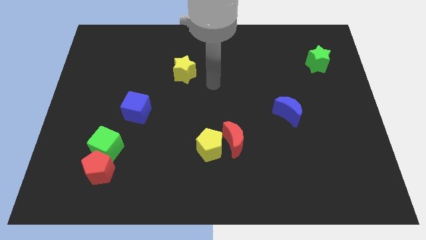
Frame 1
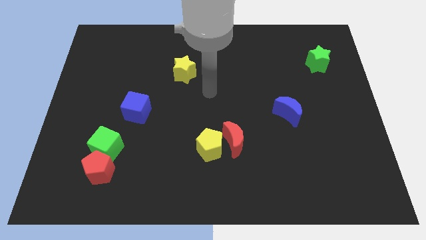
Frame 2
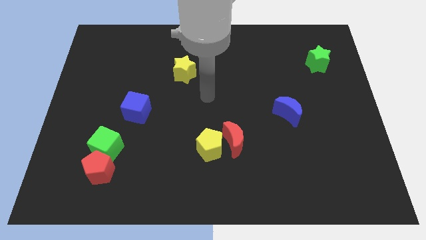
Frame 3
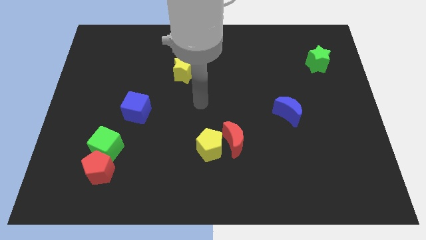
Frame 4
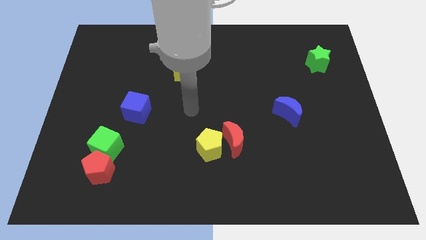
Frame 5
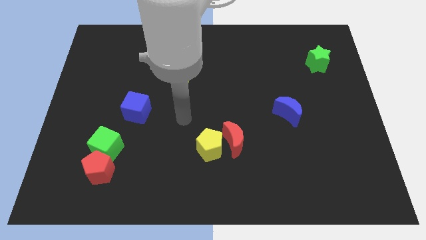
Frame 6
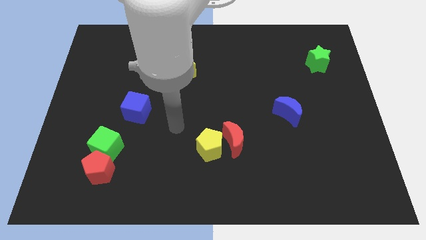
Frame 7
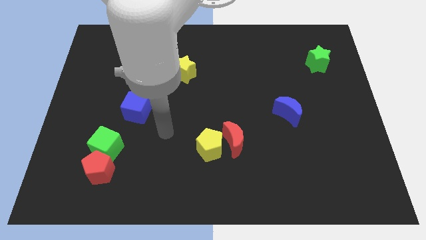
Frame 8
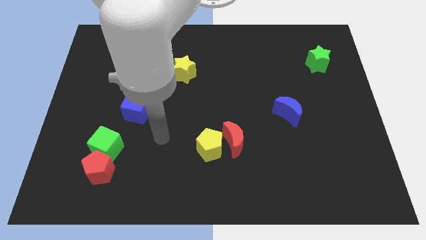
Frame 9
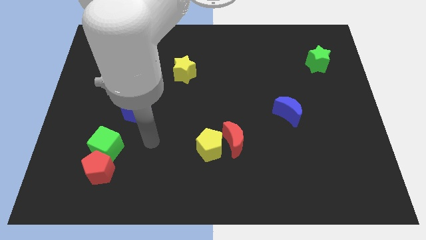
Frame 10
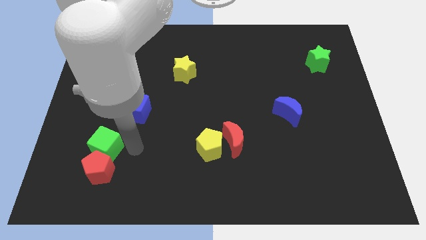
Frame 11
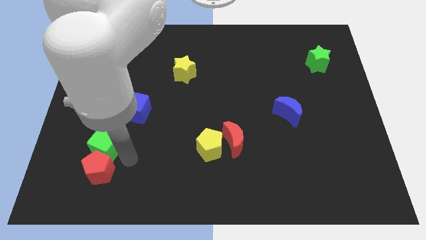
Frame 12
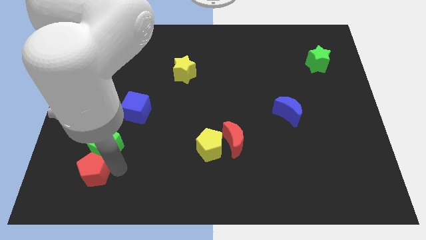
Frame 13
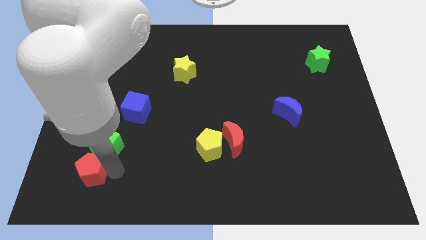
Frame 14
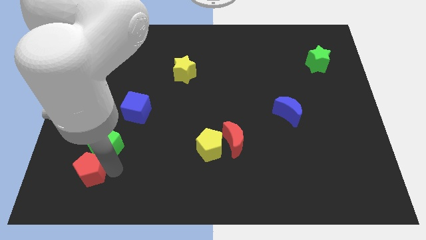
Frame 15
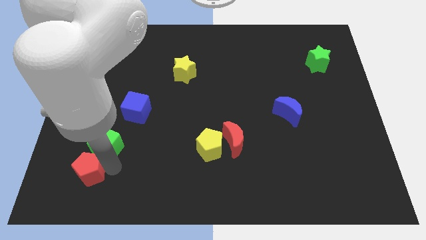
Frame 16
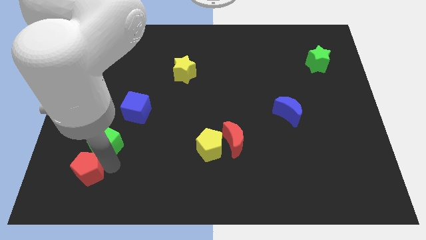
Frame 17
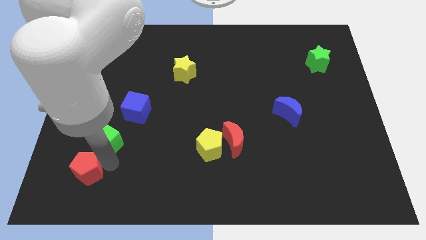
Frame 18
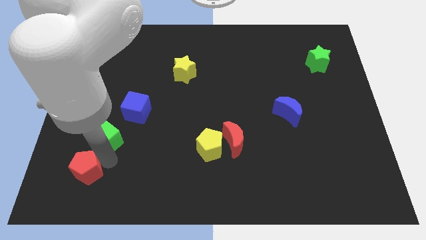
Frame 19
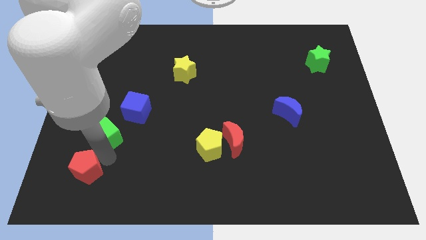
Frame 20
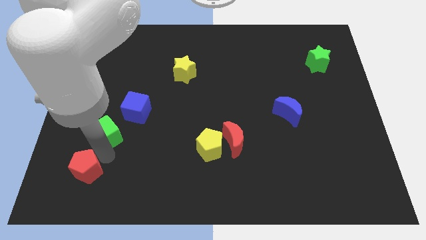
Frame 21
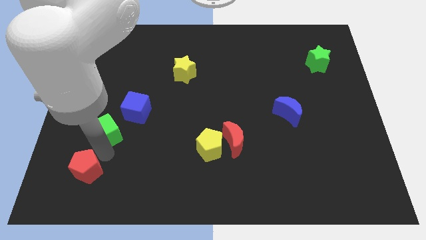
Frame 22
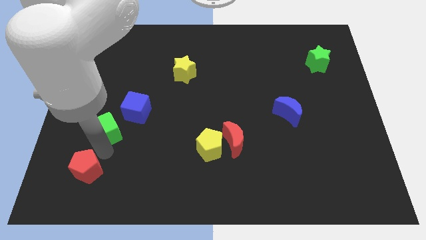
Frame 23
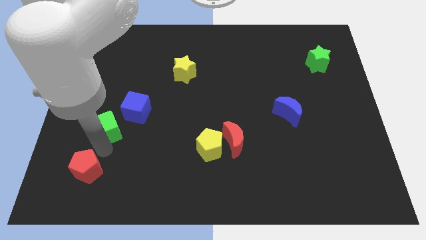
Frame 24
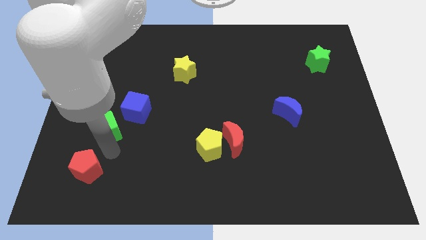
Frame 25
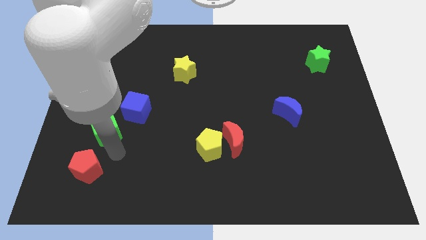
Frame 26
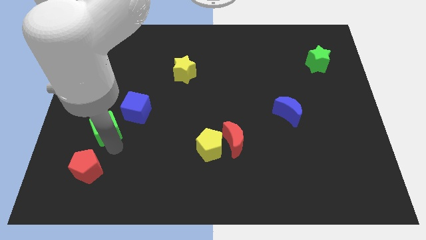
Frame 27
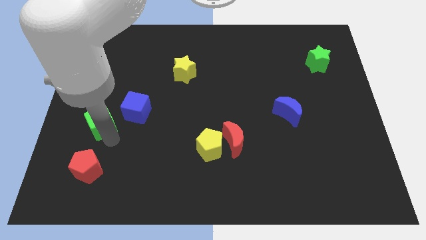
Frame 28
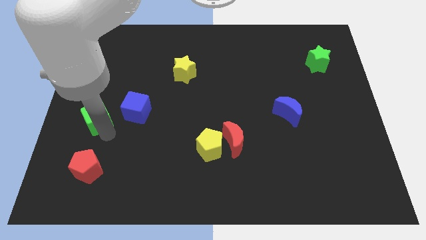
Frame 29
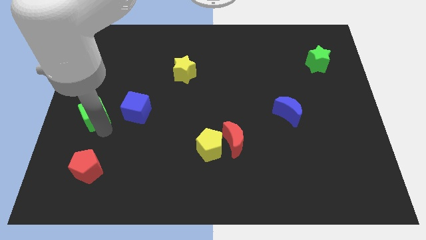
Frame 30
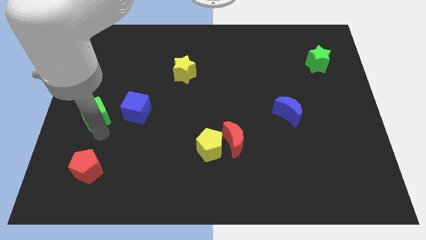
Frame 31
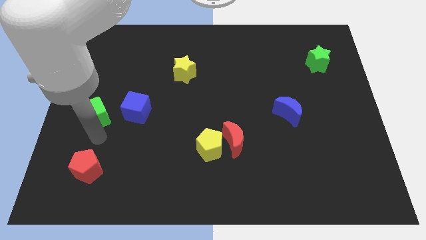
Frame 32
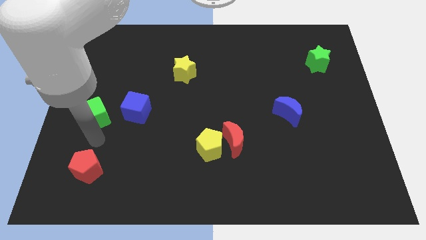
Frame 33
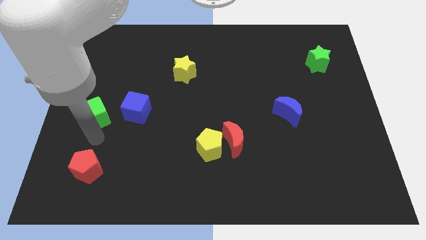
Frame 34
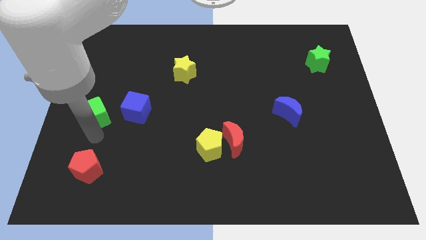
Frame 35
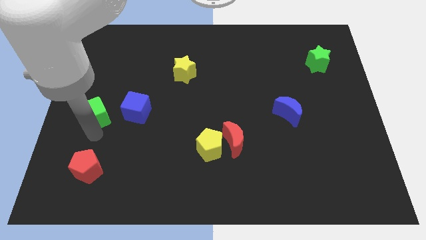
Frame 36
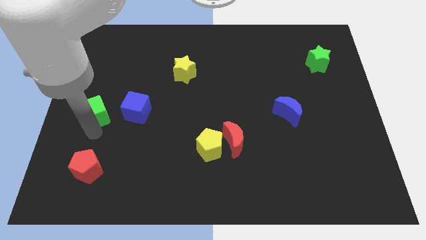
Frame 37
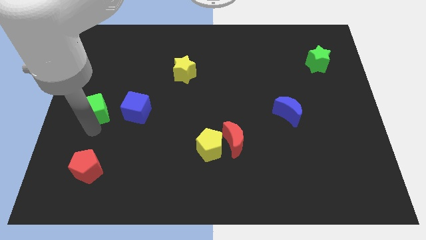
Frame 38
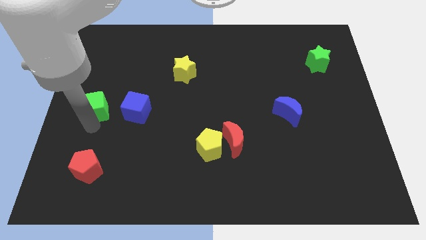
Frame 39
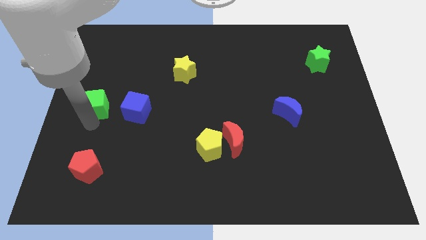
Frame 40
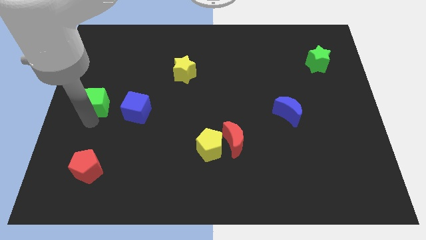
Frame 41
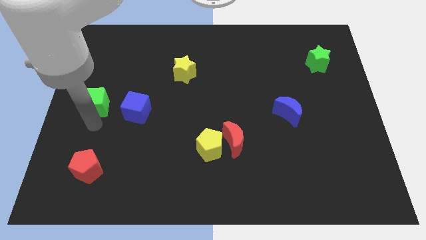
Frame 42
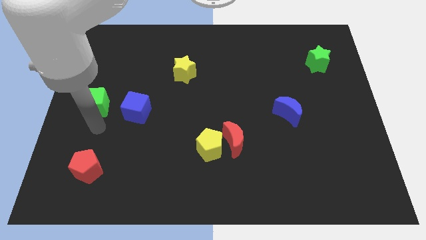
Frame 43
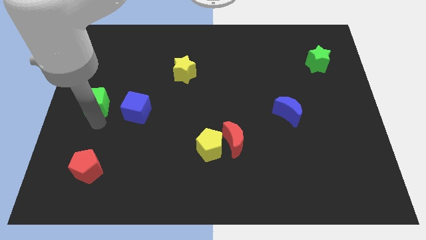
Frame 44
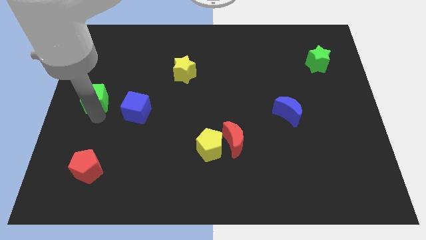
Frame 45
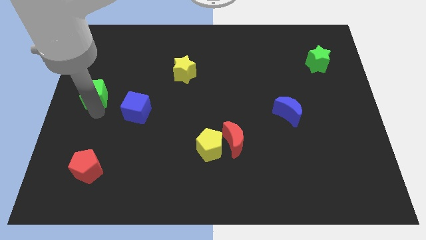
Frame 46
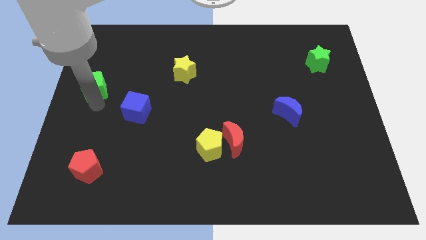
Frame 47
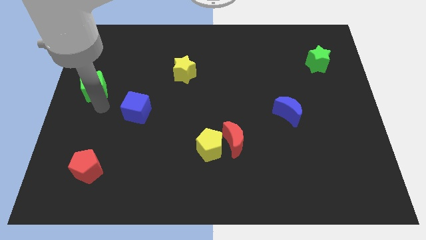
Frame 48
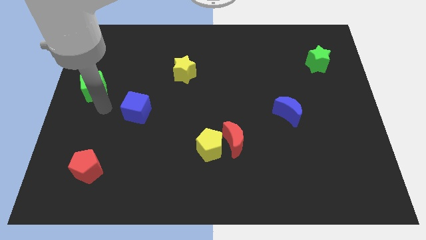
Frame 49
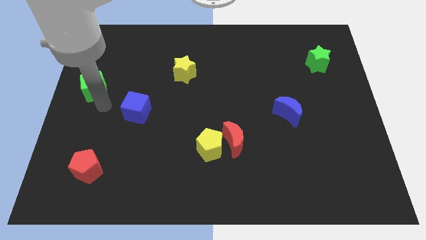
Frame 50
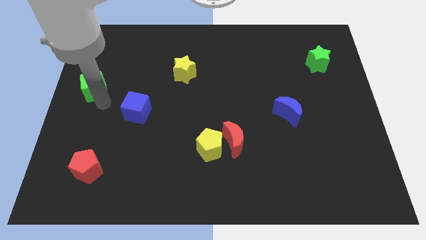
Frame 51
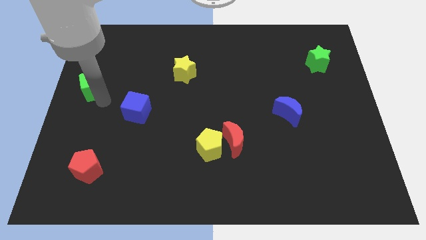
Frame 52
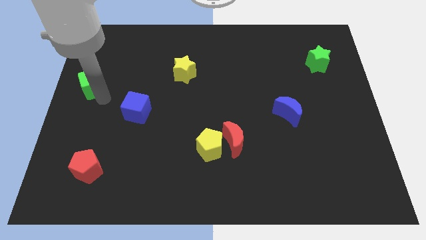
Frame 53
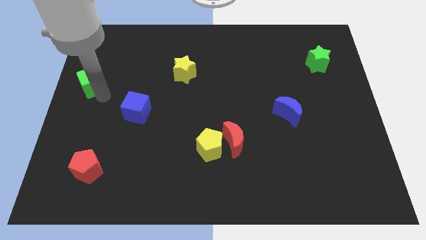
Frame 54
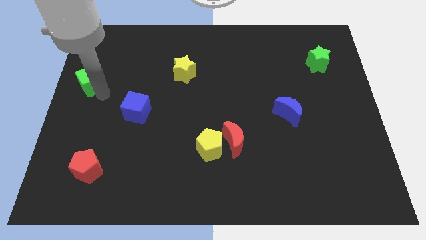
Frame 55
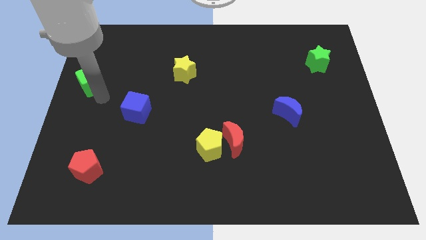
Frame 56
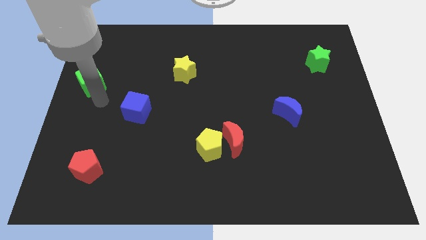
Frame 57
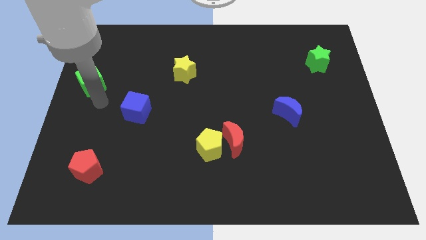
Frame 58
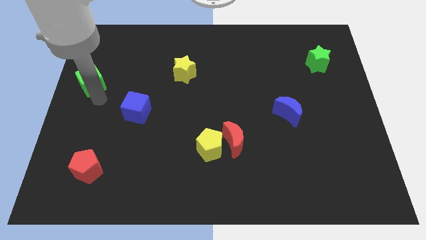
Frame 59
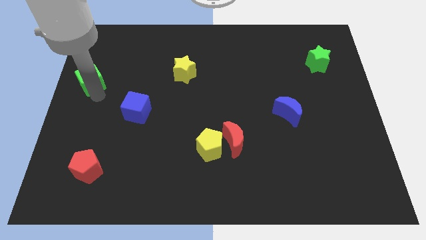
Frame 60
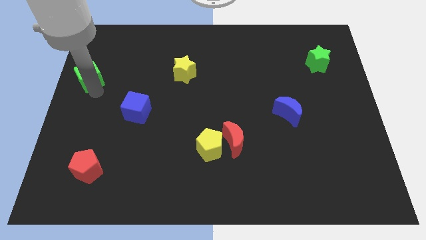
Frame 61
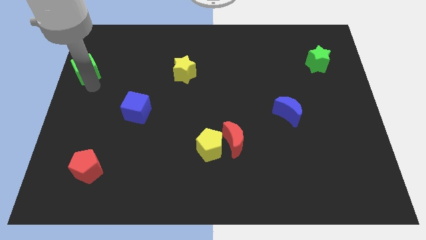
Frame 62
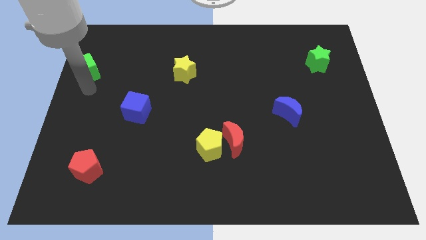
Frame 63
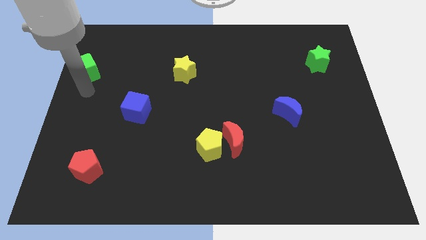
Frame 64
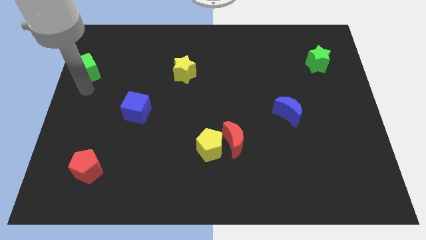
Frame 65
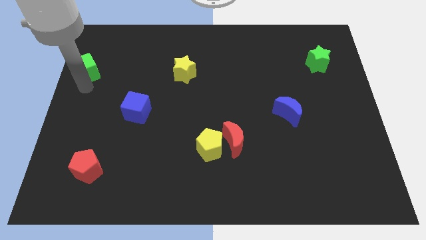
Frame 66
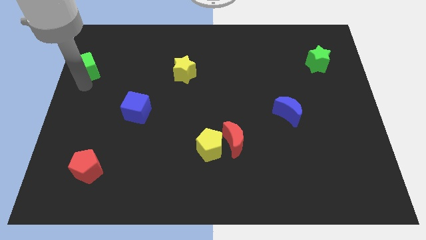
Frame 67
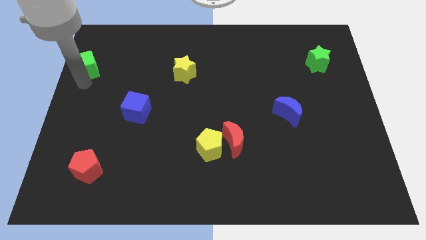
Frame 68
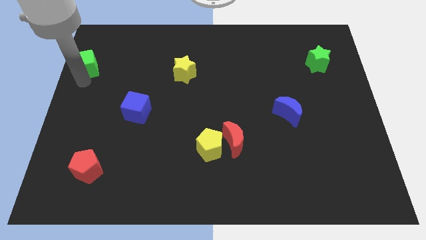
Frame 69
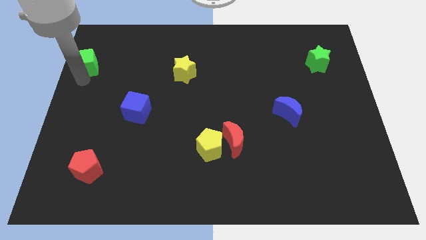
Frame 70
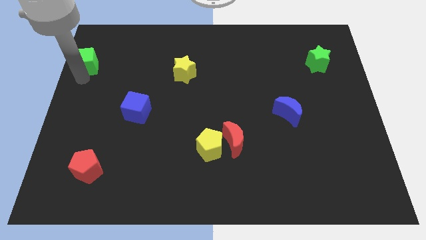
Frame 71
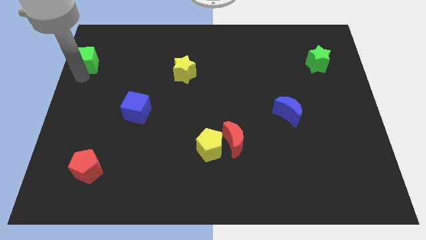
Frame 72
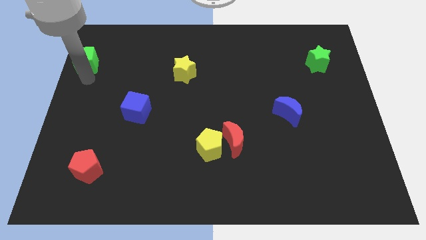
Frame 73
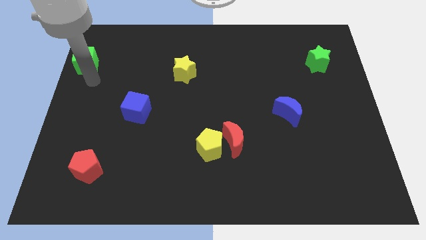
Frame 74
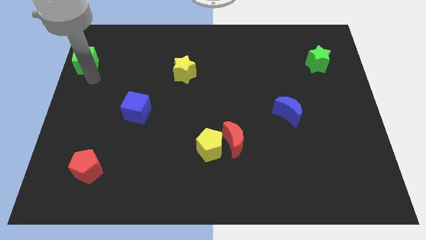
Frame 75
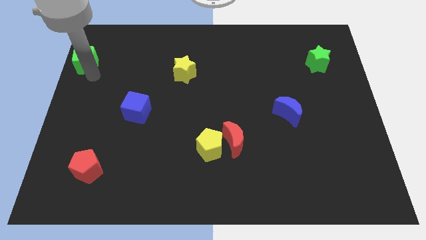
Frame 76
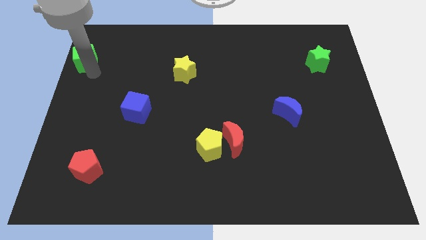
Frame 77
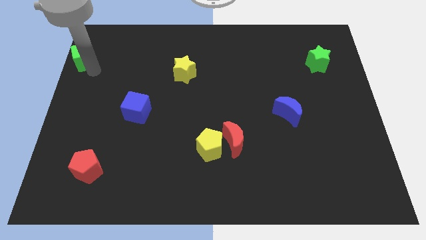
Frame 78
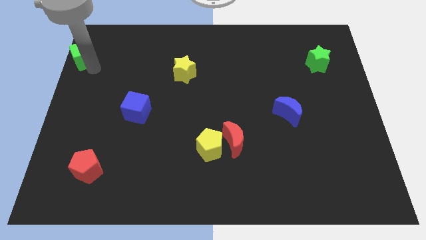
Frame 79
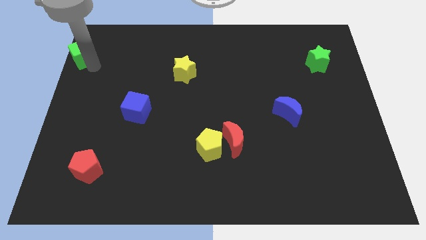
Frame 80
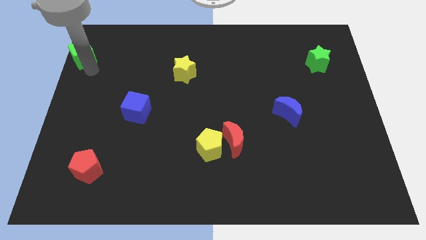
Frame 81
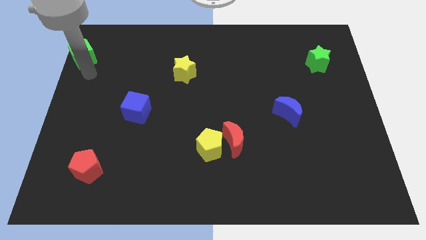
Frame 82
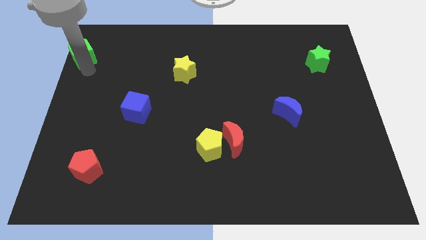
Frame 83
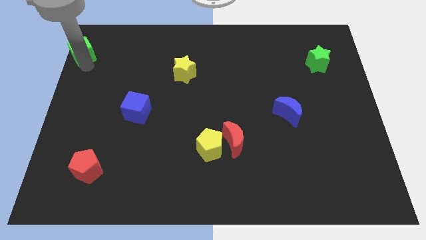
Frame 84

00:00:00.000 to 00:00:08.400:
move the green cube to the top left corner
